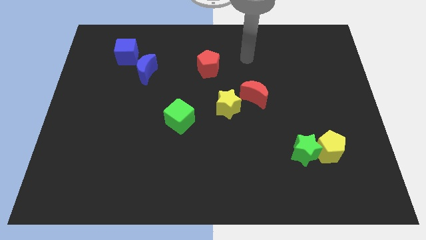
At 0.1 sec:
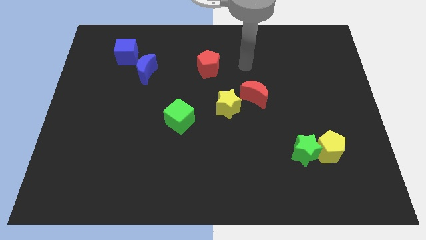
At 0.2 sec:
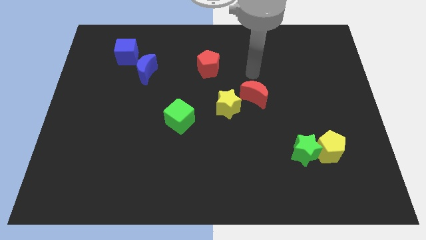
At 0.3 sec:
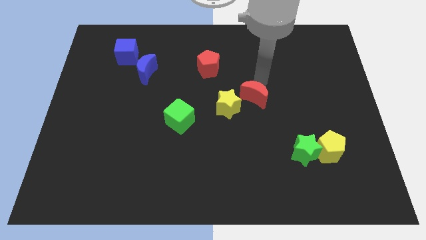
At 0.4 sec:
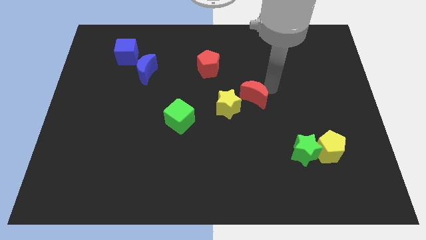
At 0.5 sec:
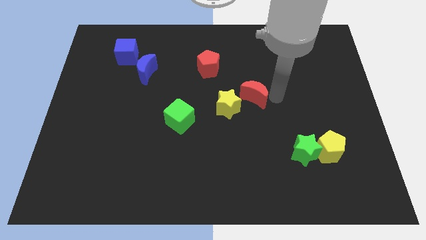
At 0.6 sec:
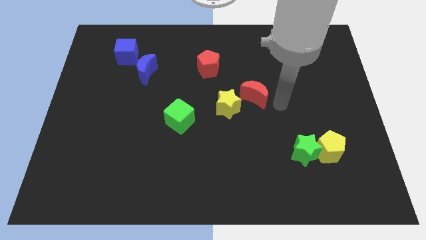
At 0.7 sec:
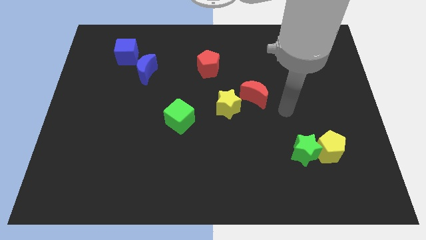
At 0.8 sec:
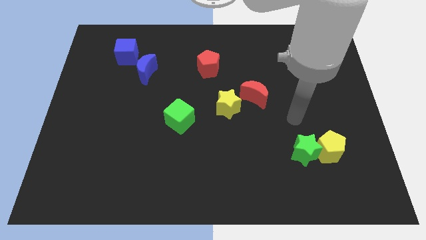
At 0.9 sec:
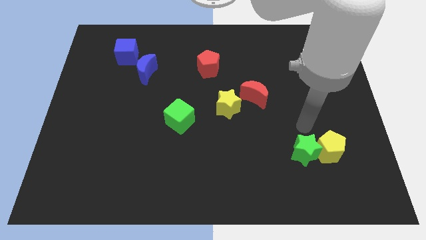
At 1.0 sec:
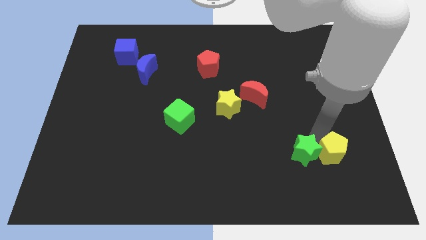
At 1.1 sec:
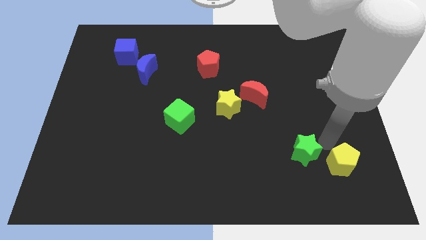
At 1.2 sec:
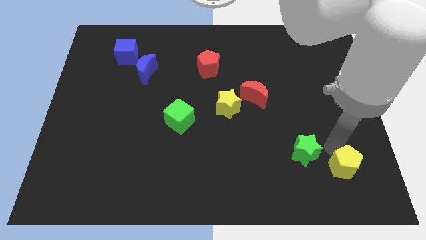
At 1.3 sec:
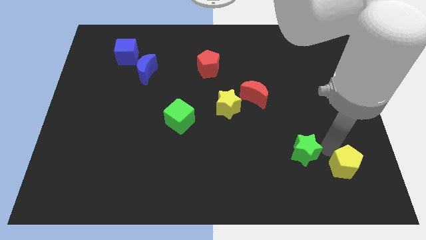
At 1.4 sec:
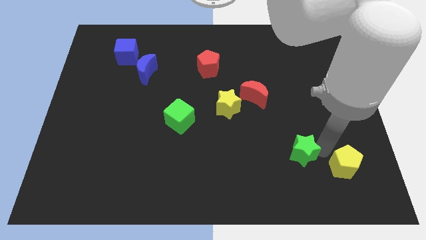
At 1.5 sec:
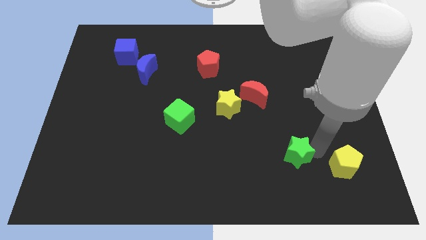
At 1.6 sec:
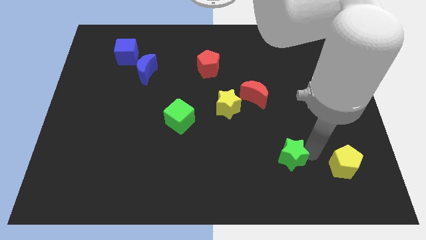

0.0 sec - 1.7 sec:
pull the green star apart from the yellow pentagon

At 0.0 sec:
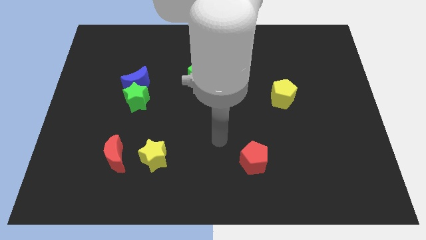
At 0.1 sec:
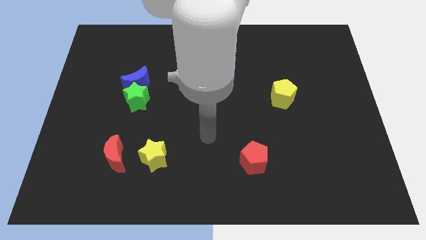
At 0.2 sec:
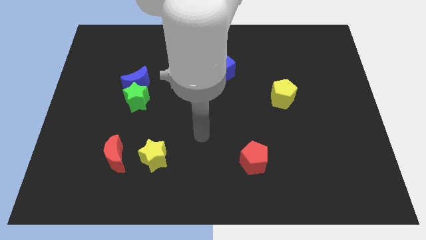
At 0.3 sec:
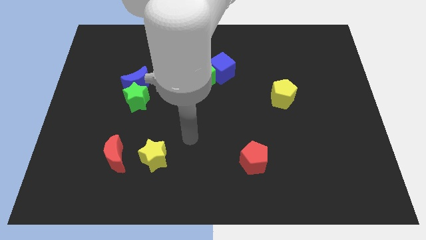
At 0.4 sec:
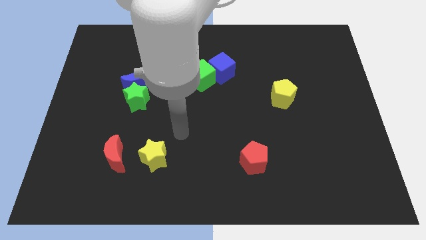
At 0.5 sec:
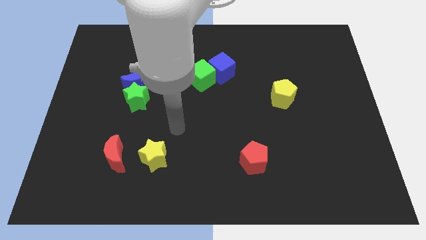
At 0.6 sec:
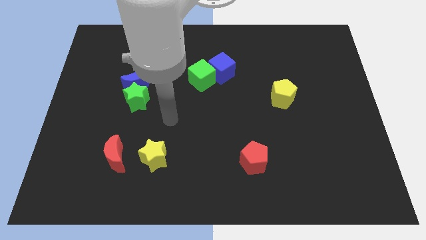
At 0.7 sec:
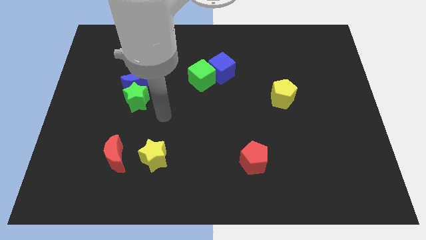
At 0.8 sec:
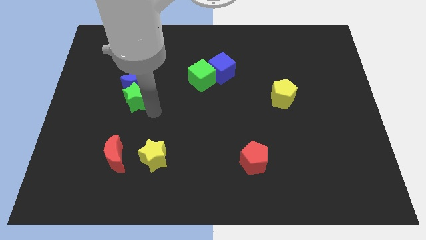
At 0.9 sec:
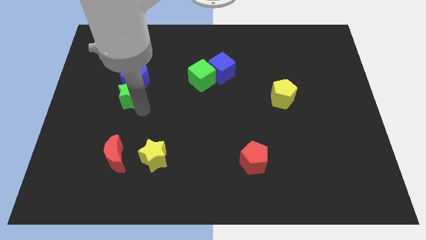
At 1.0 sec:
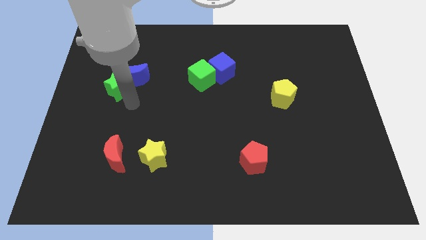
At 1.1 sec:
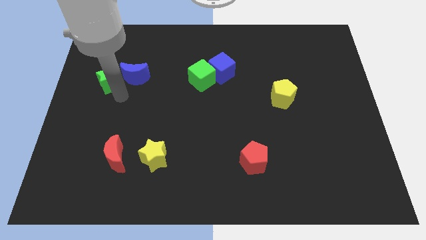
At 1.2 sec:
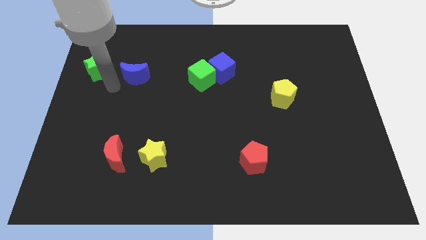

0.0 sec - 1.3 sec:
pull the blue moon apart from the green star

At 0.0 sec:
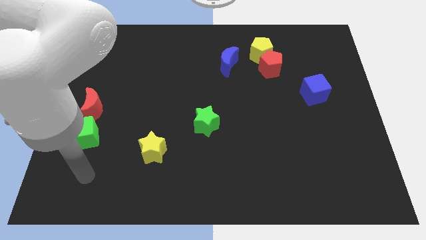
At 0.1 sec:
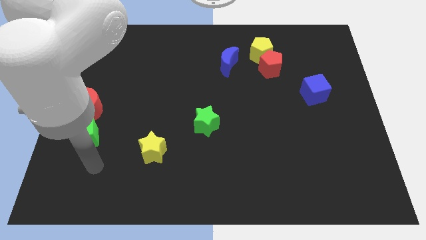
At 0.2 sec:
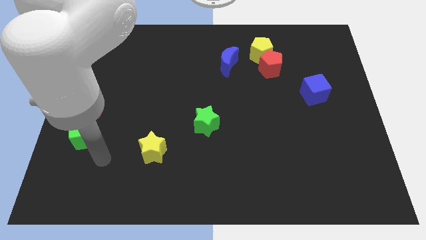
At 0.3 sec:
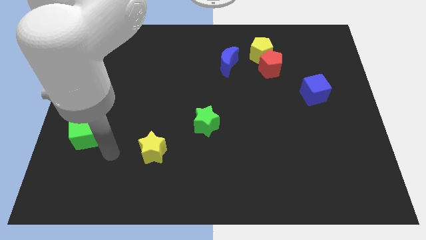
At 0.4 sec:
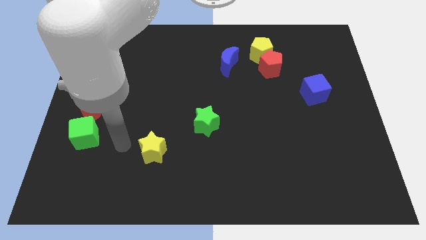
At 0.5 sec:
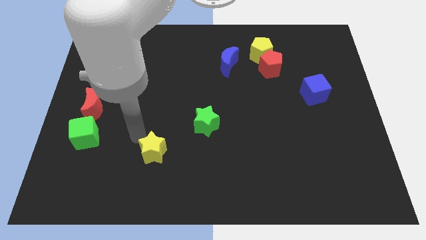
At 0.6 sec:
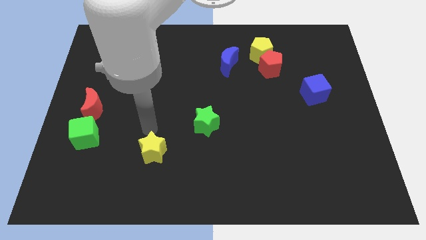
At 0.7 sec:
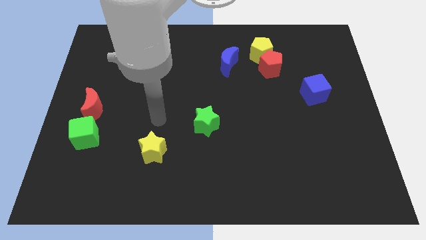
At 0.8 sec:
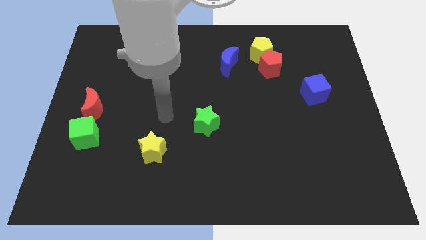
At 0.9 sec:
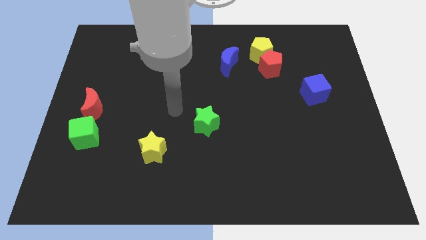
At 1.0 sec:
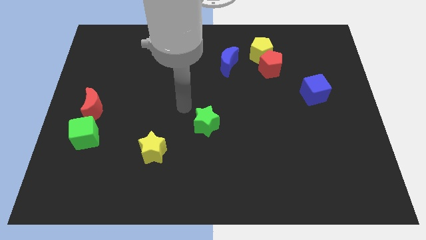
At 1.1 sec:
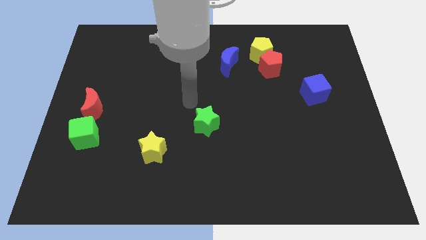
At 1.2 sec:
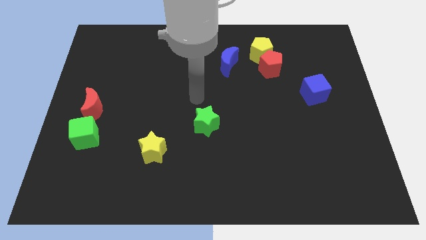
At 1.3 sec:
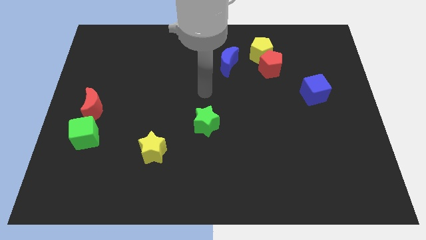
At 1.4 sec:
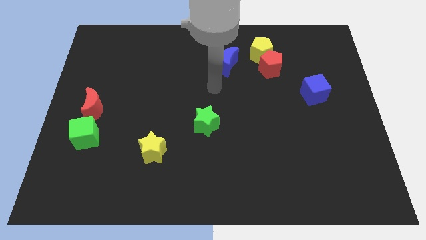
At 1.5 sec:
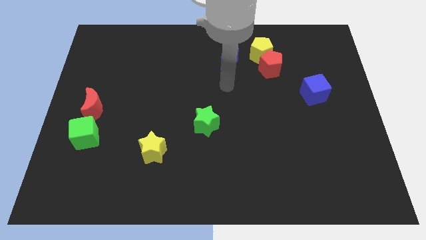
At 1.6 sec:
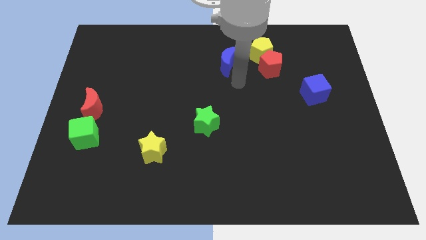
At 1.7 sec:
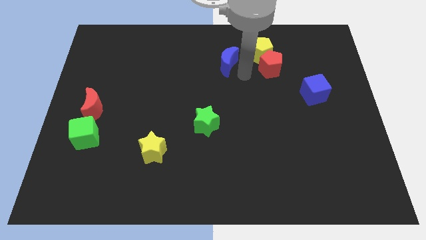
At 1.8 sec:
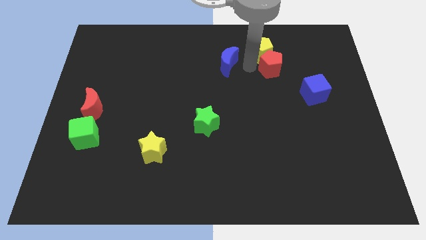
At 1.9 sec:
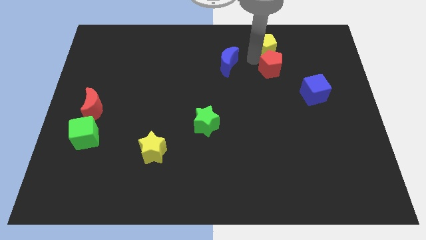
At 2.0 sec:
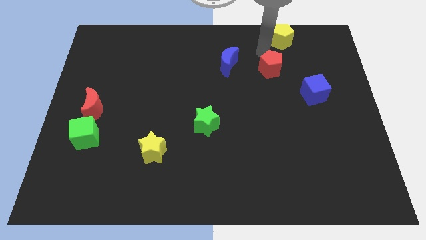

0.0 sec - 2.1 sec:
pull the red pentagon apart from the yellow pentagon

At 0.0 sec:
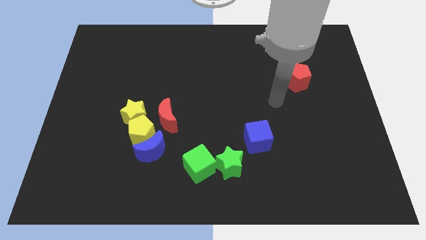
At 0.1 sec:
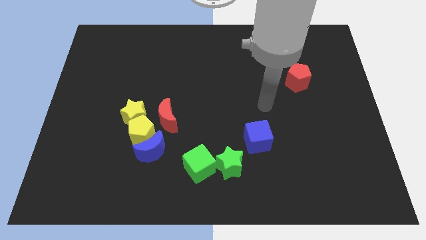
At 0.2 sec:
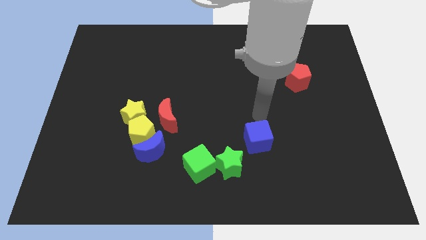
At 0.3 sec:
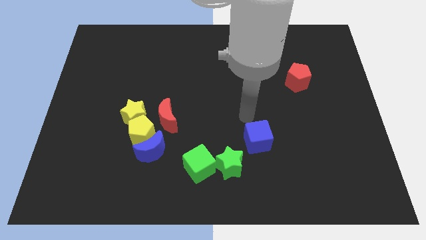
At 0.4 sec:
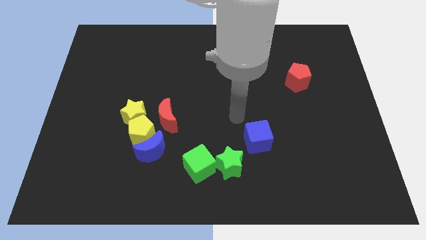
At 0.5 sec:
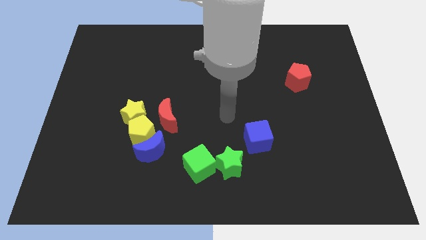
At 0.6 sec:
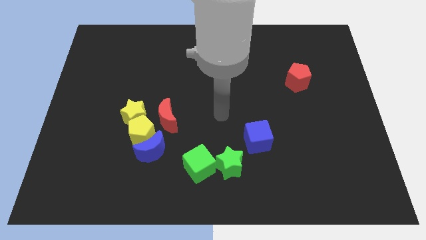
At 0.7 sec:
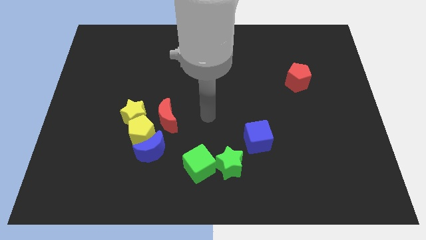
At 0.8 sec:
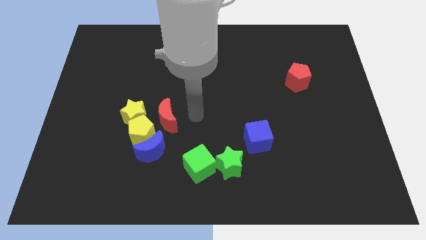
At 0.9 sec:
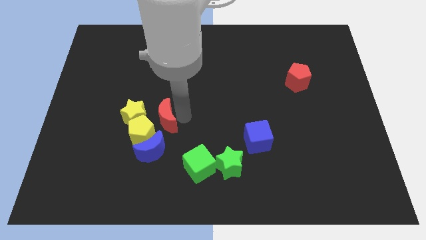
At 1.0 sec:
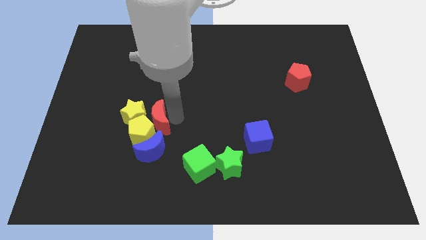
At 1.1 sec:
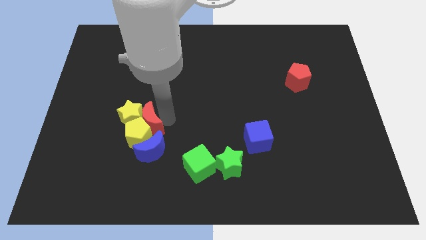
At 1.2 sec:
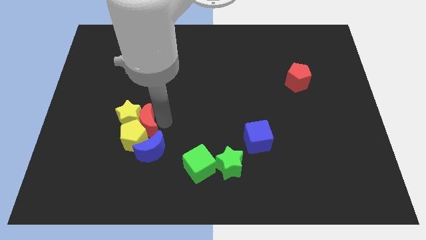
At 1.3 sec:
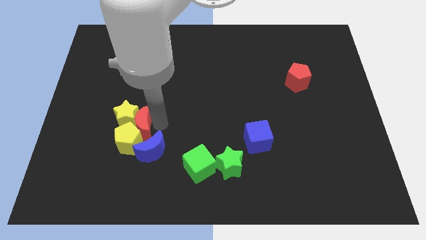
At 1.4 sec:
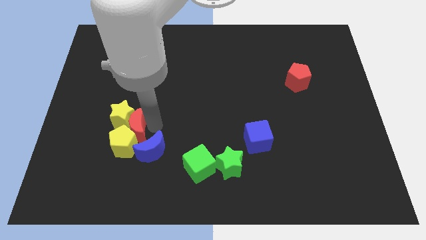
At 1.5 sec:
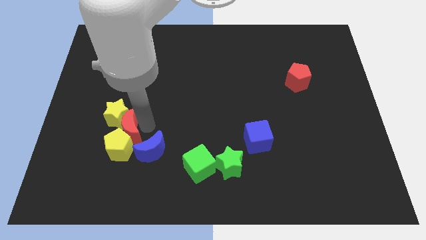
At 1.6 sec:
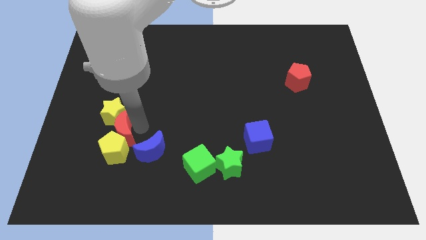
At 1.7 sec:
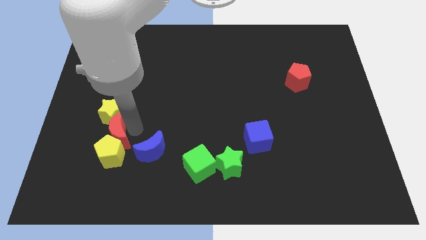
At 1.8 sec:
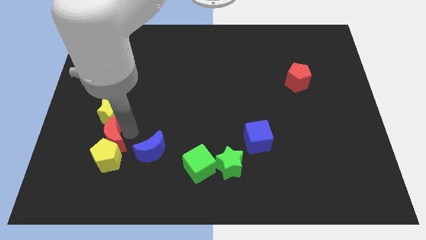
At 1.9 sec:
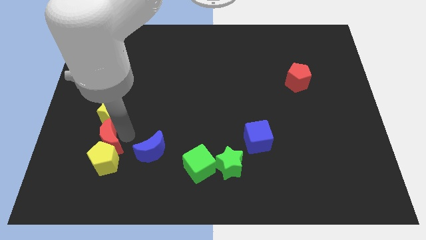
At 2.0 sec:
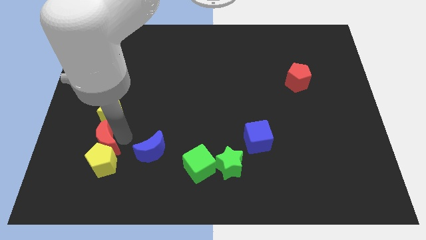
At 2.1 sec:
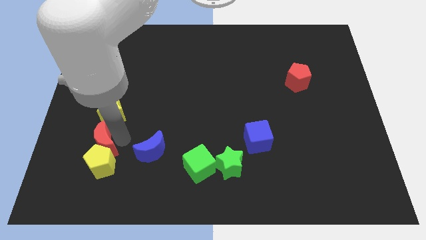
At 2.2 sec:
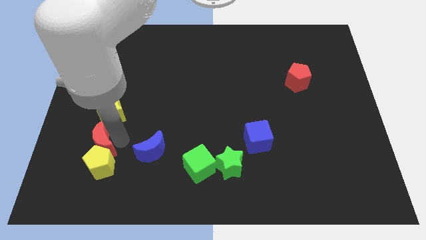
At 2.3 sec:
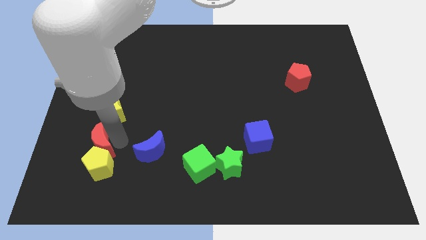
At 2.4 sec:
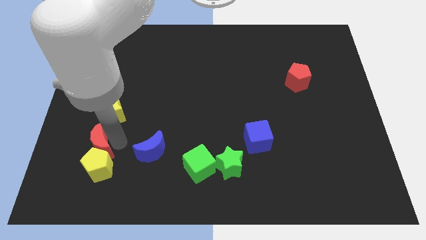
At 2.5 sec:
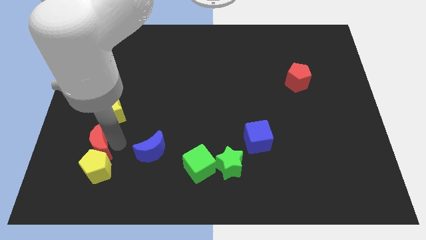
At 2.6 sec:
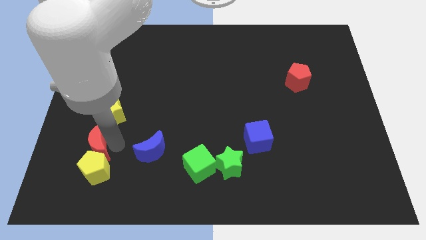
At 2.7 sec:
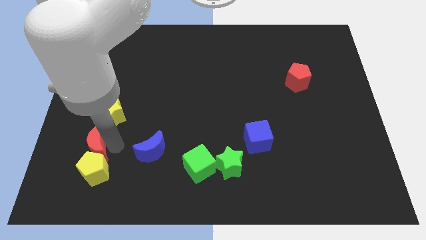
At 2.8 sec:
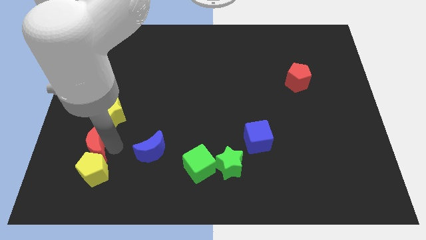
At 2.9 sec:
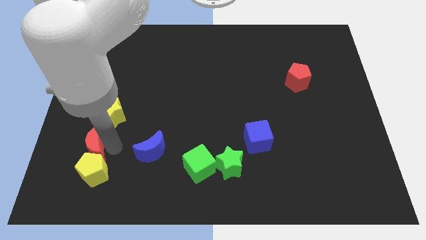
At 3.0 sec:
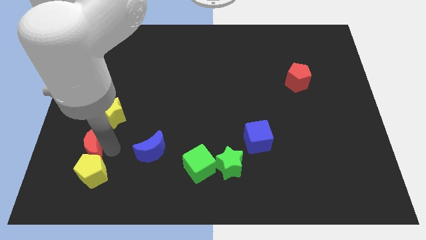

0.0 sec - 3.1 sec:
pull the yellow pentagon apart from the clump

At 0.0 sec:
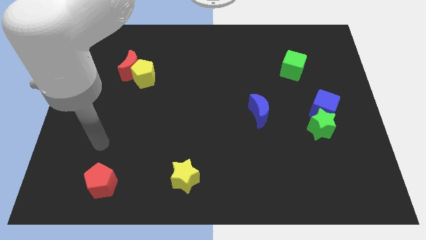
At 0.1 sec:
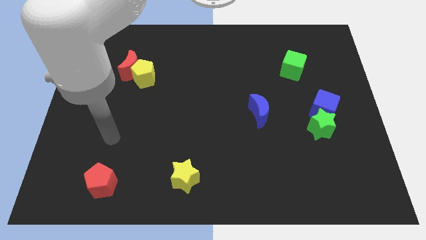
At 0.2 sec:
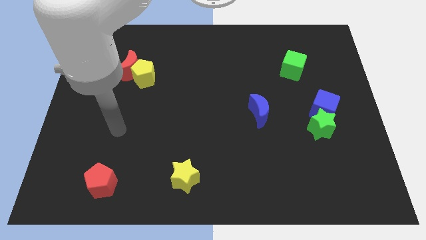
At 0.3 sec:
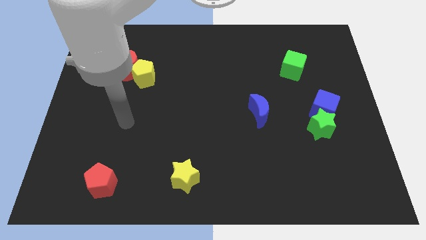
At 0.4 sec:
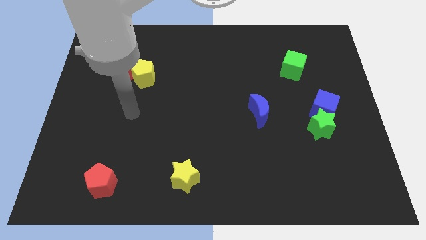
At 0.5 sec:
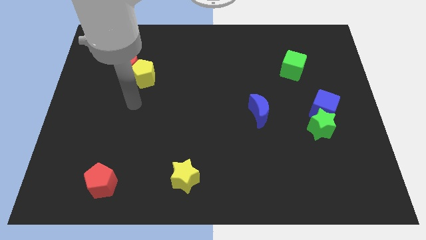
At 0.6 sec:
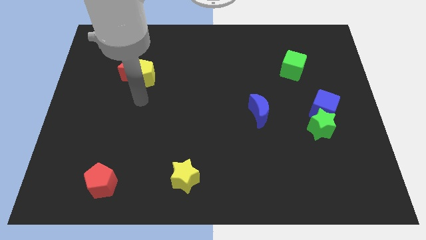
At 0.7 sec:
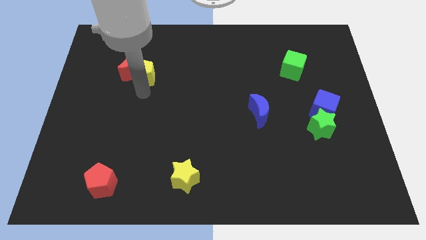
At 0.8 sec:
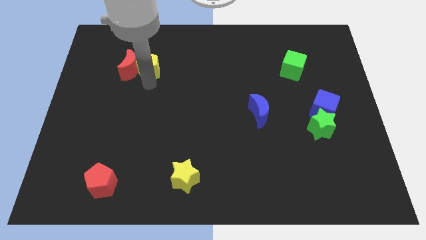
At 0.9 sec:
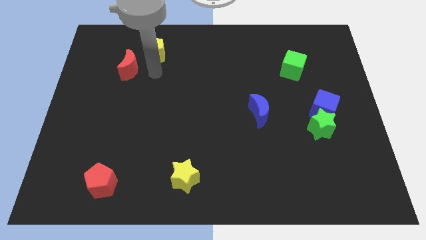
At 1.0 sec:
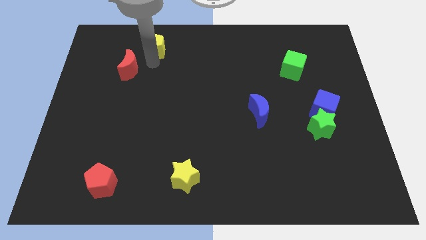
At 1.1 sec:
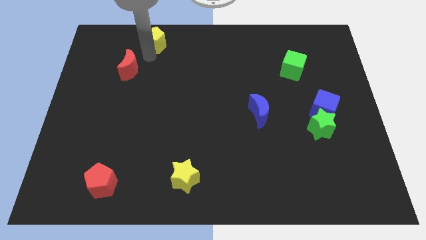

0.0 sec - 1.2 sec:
pull the red moon apart from the yellow pentagon

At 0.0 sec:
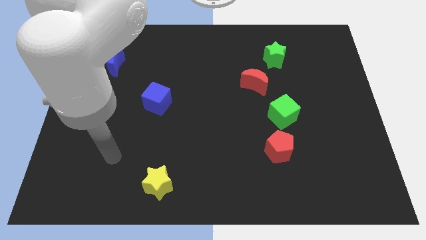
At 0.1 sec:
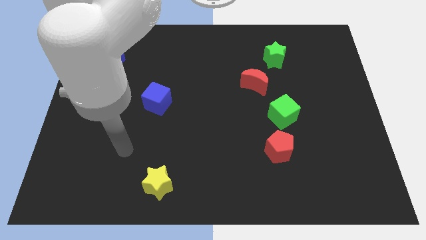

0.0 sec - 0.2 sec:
separate the red pentagon from the green cube
